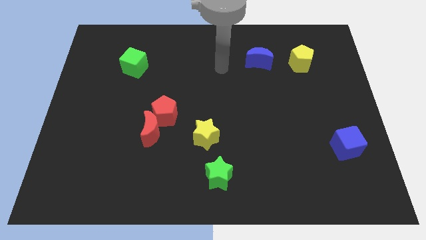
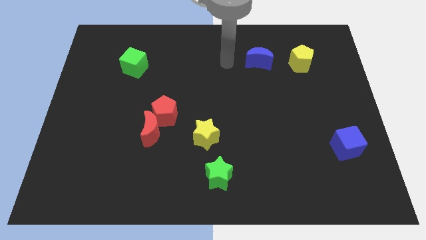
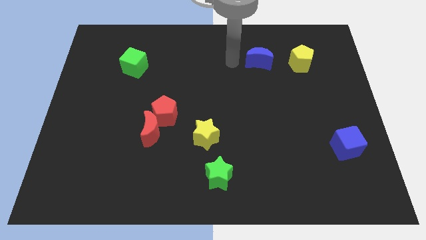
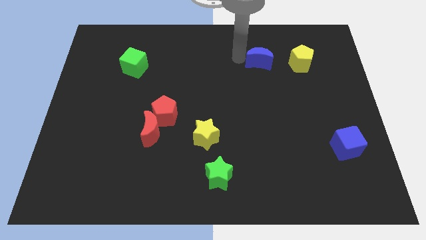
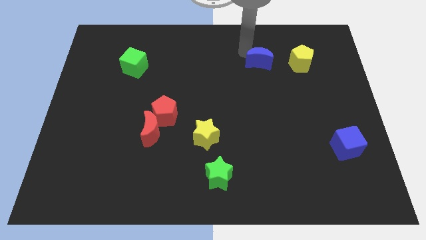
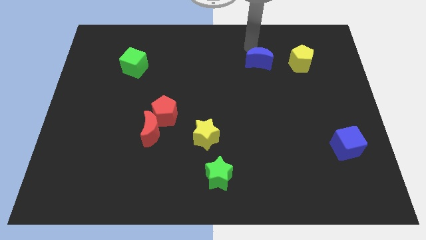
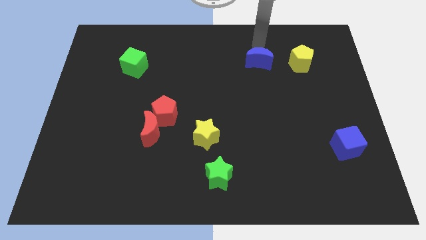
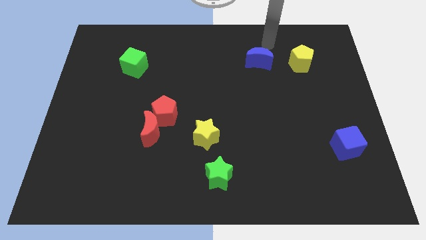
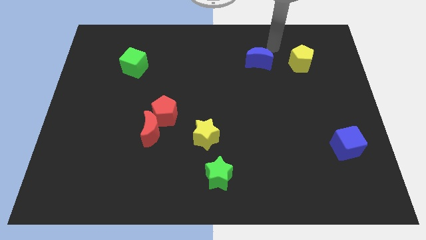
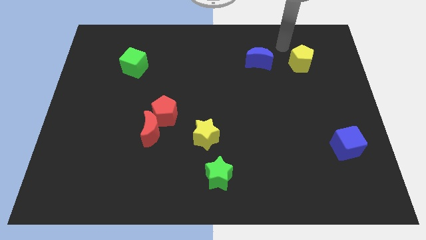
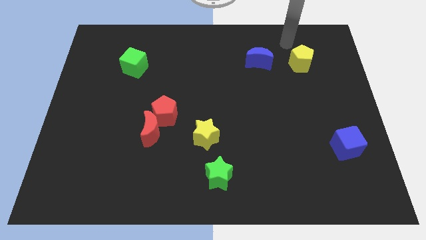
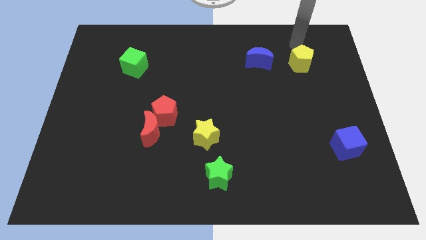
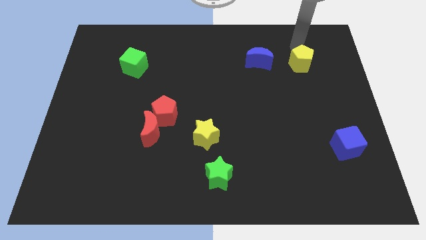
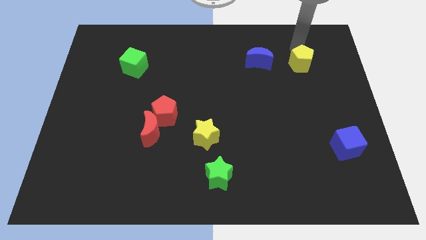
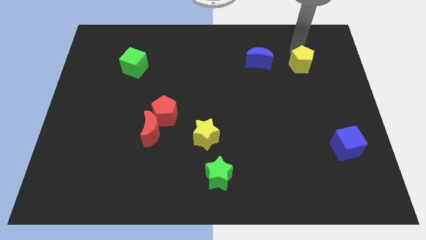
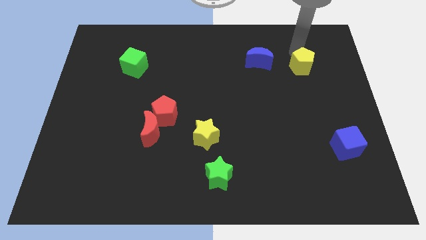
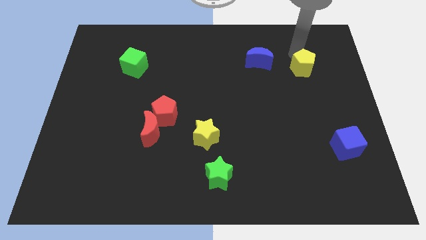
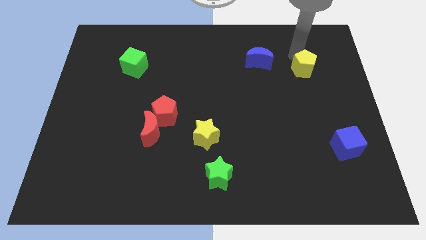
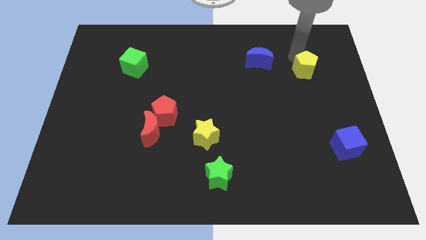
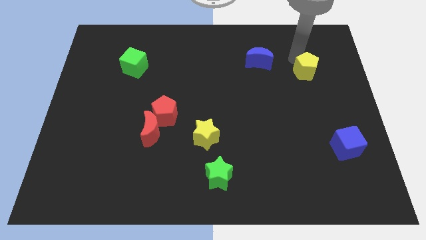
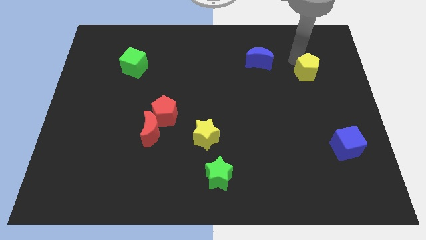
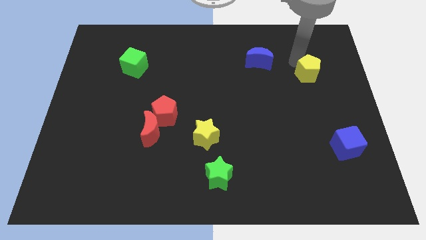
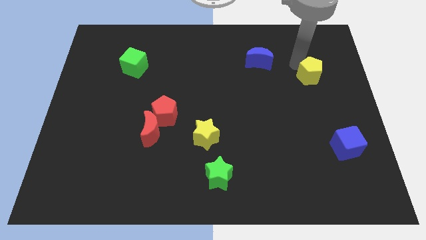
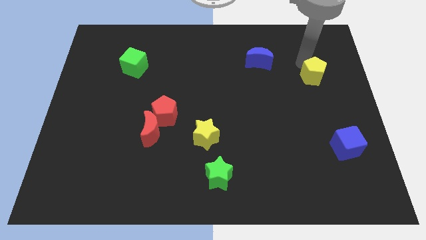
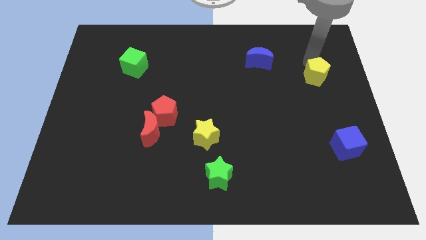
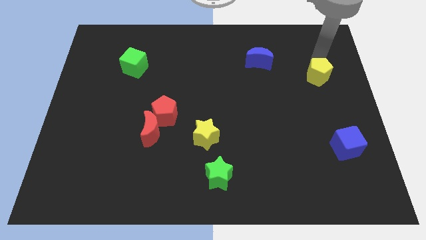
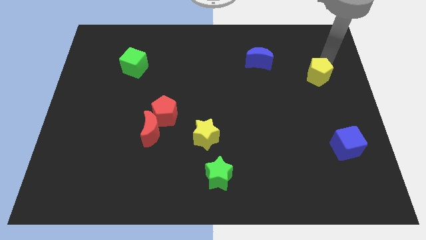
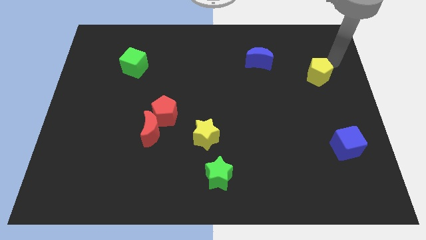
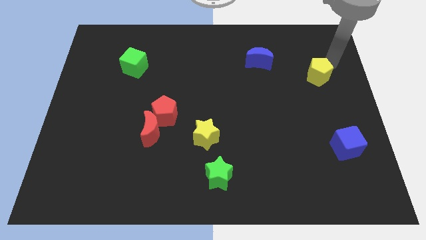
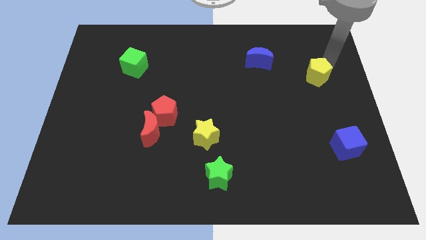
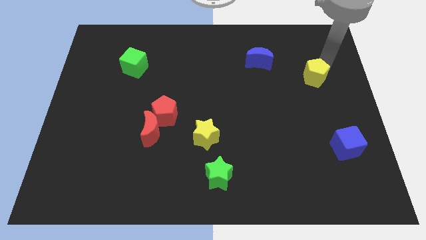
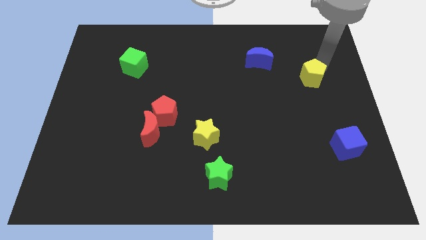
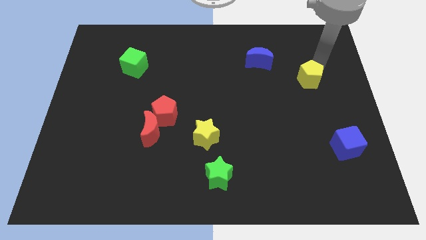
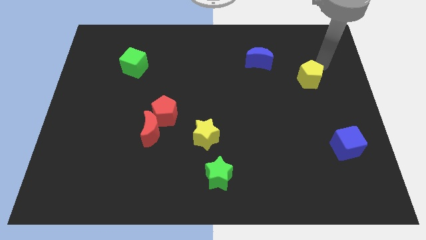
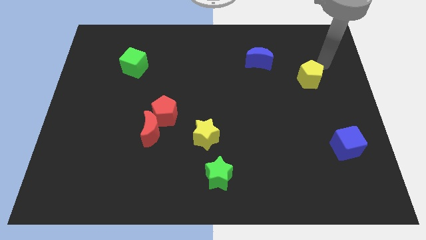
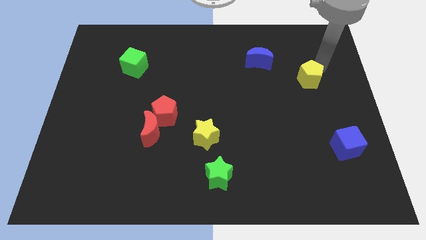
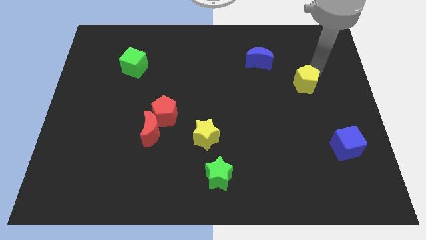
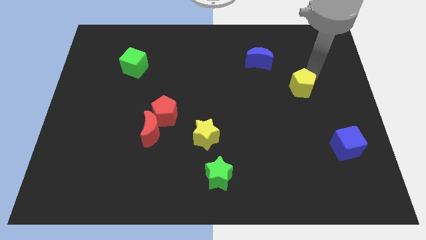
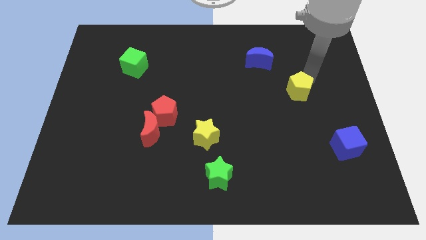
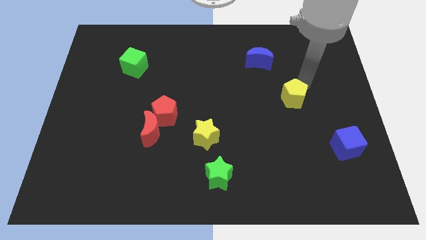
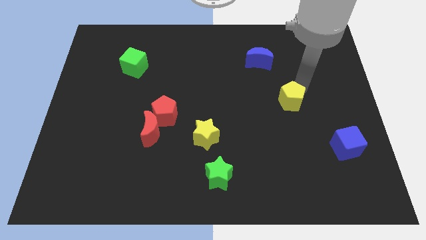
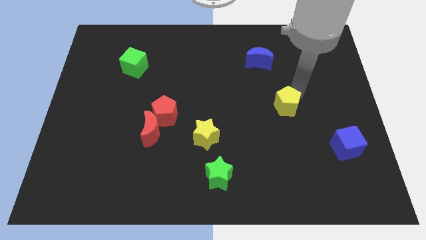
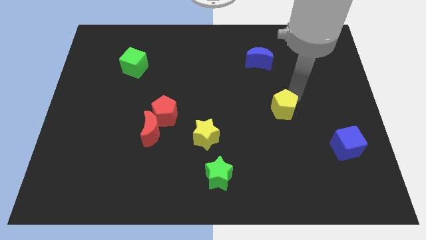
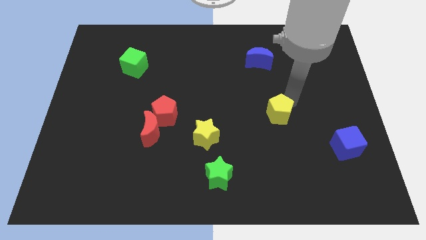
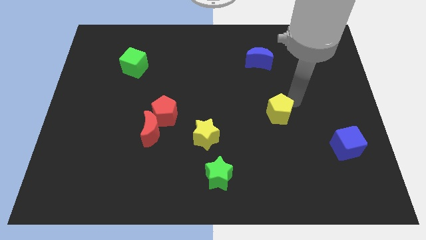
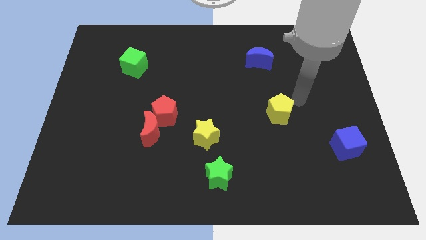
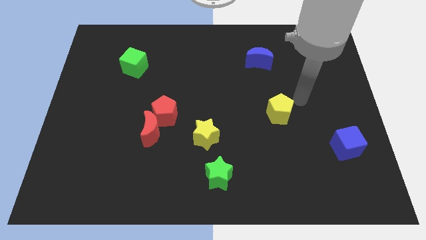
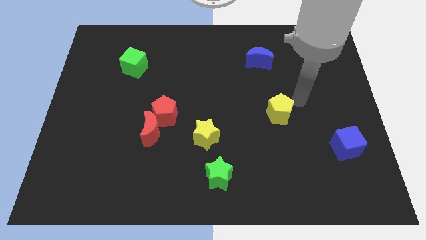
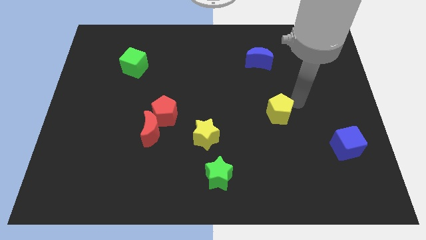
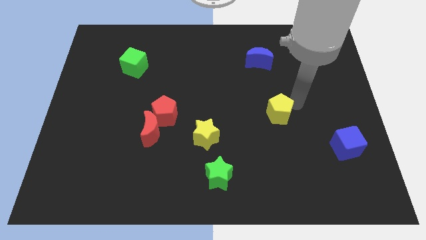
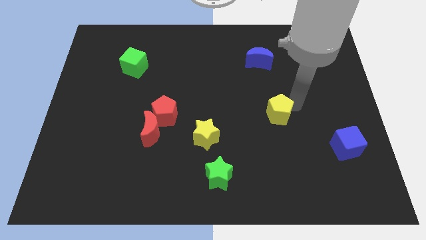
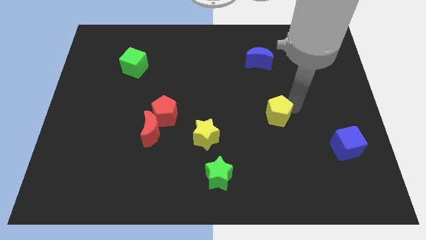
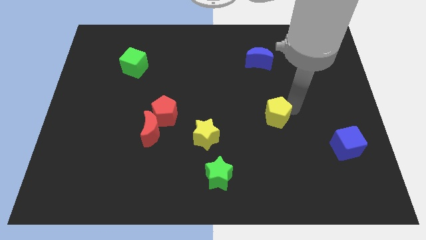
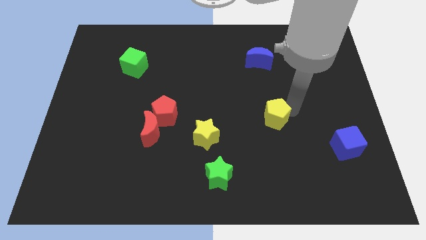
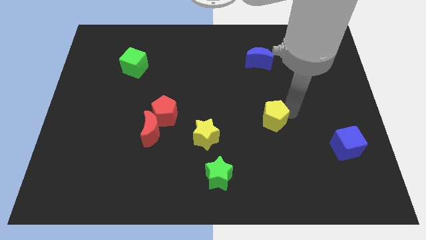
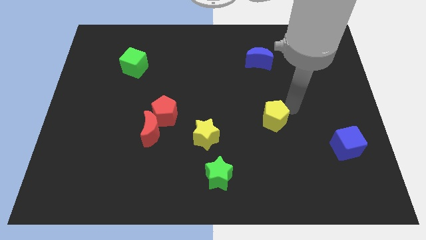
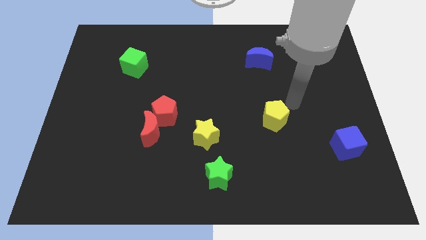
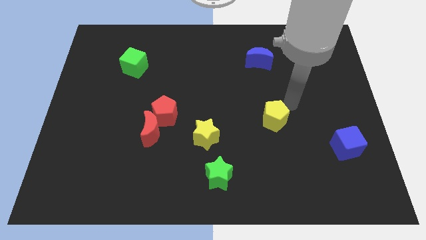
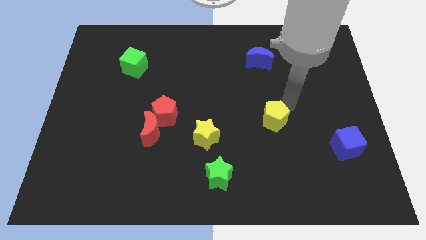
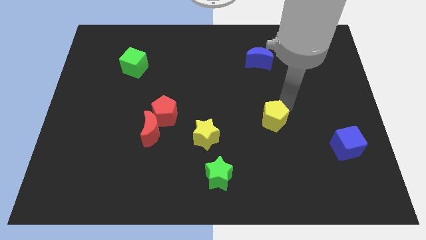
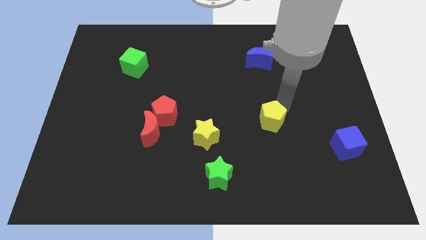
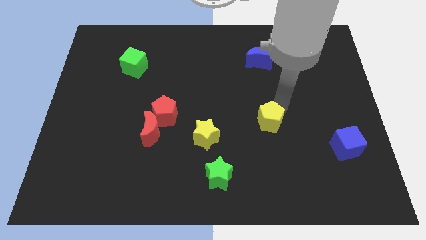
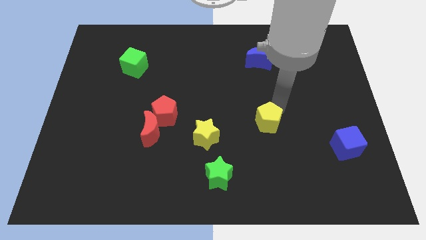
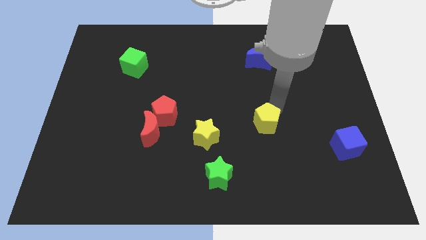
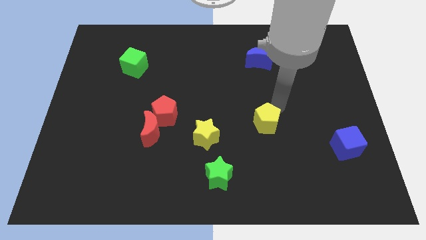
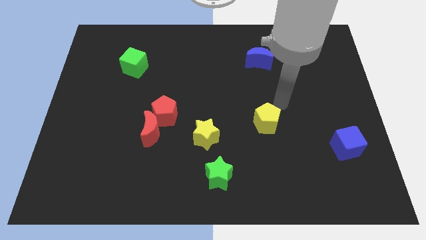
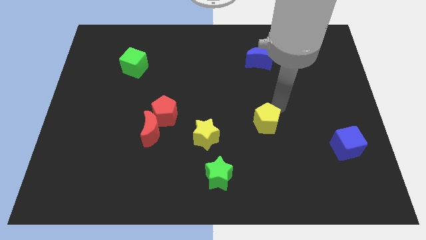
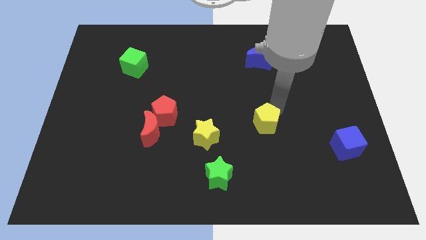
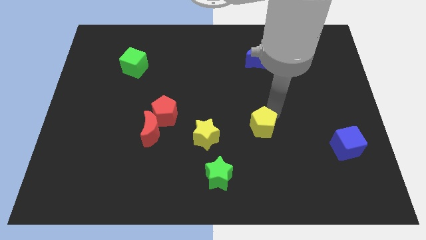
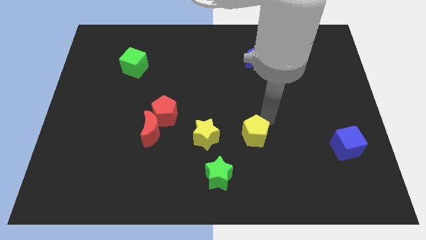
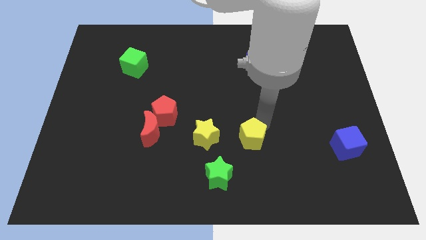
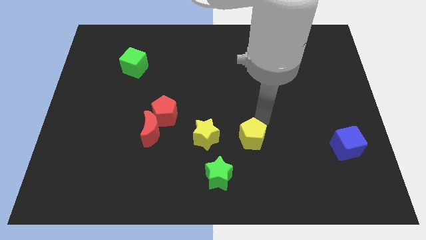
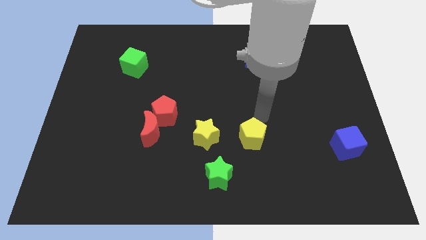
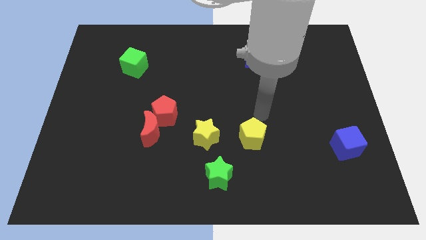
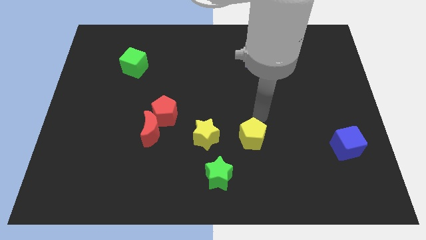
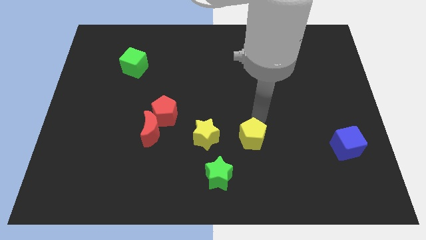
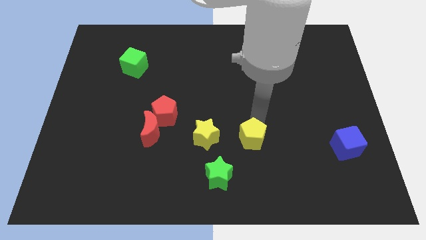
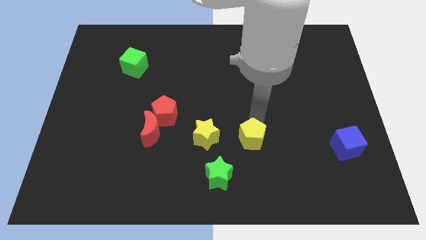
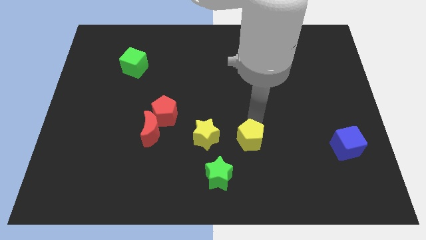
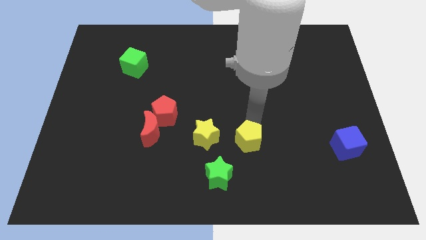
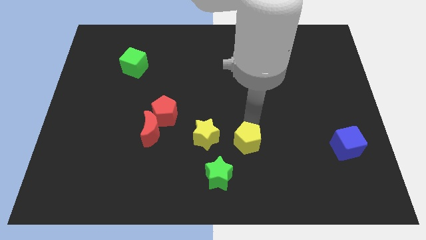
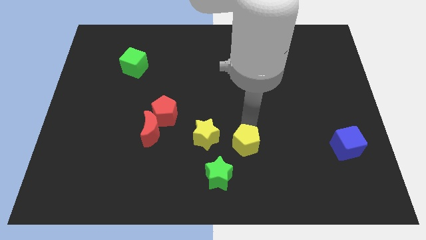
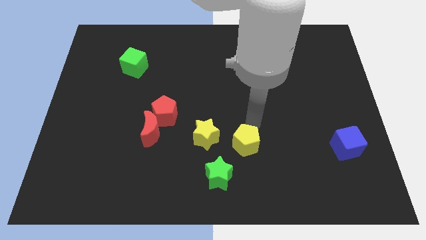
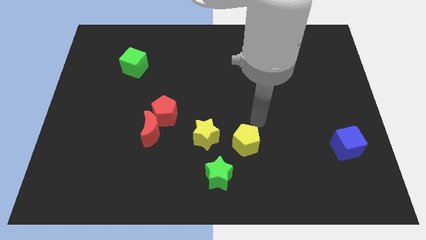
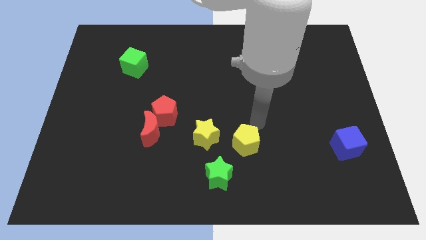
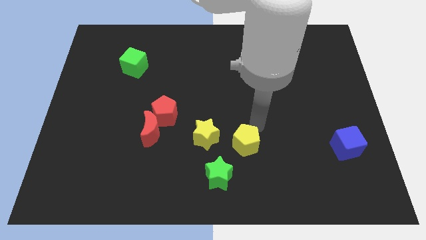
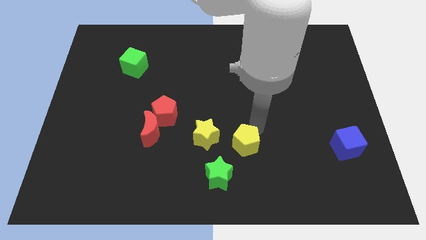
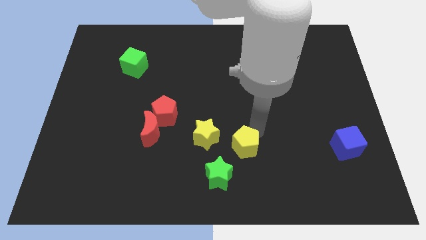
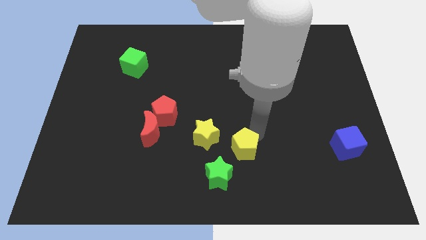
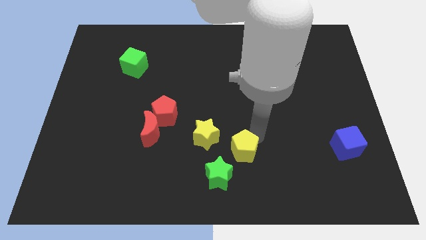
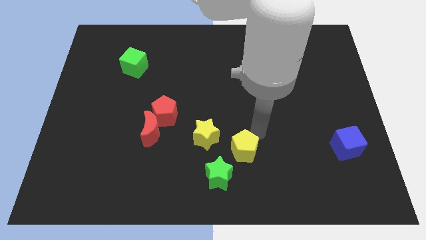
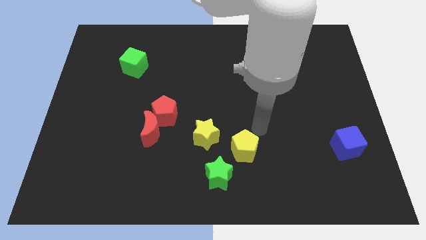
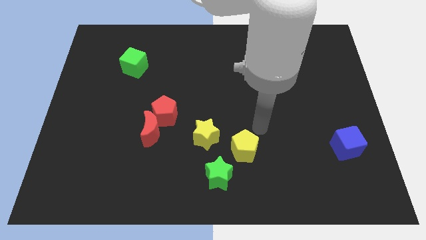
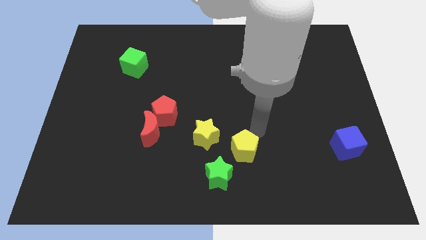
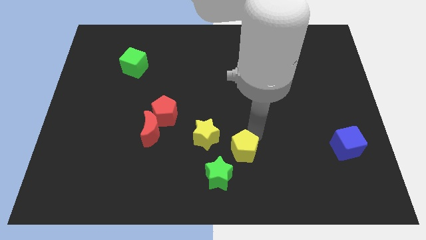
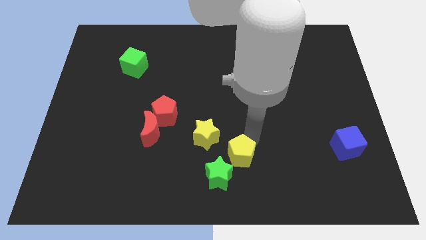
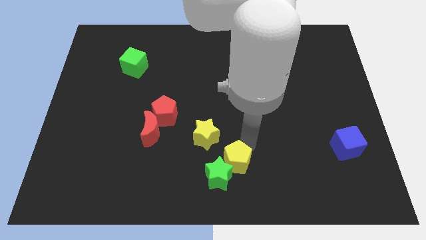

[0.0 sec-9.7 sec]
put the yellow pentagon to the green star
